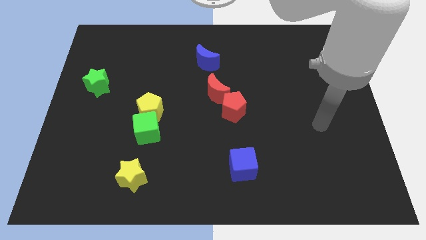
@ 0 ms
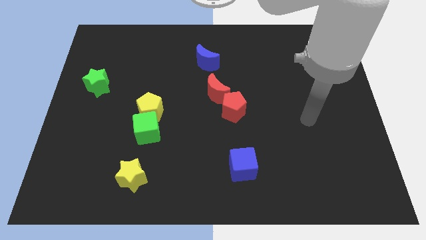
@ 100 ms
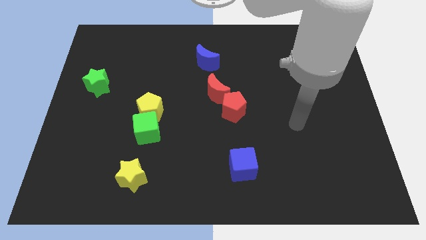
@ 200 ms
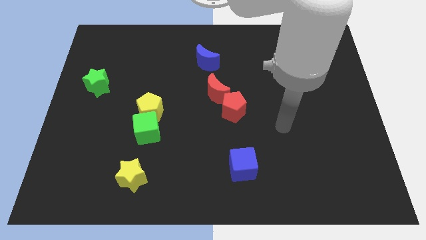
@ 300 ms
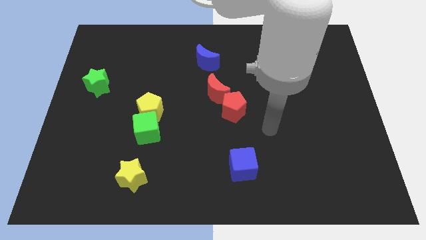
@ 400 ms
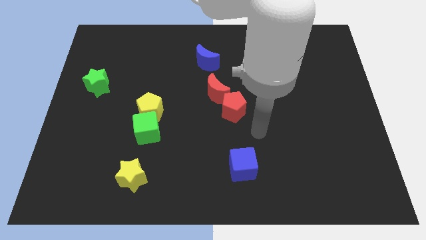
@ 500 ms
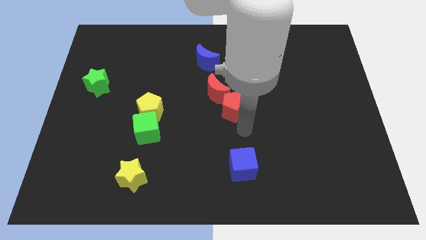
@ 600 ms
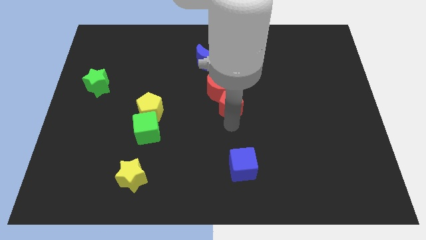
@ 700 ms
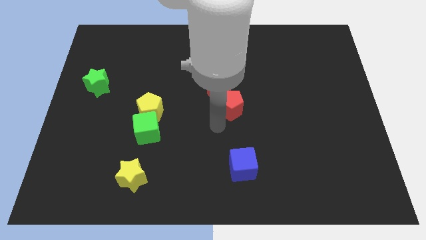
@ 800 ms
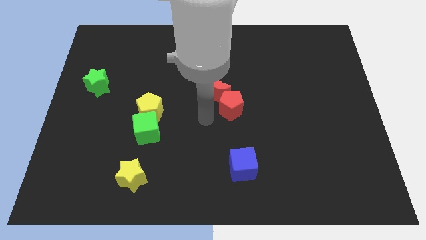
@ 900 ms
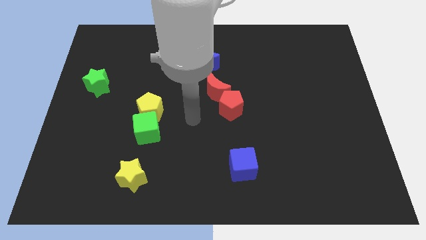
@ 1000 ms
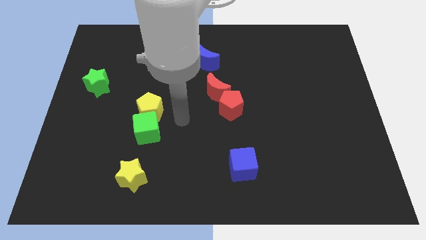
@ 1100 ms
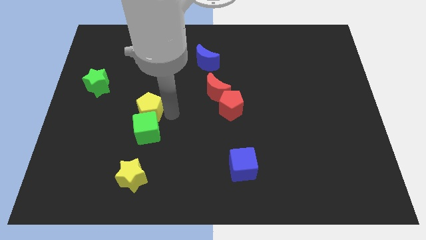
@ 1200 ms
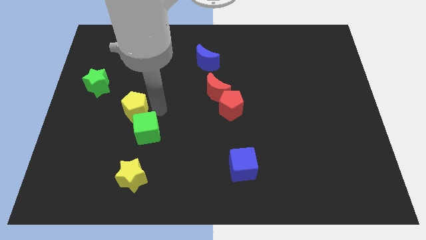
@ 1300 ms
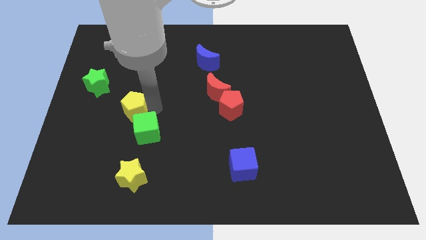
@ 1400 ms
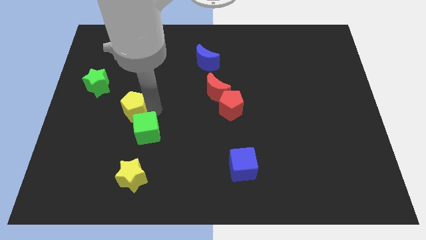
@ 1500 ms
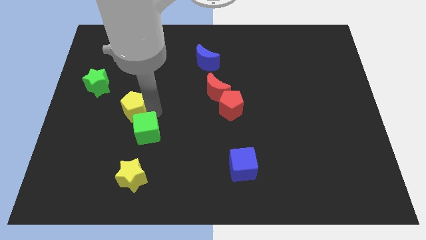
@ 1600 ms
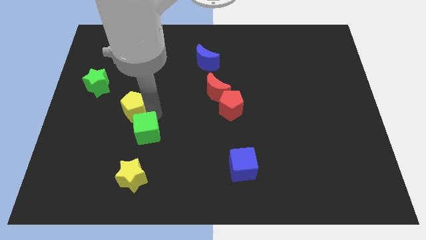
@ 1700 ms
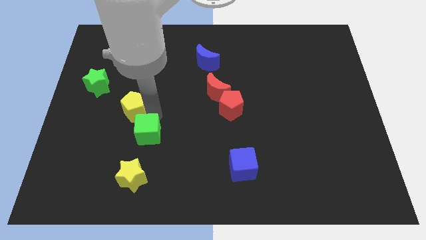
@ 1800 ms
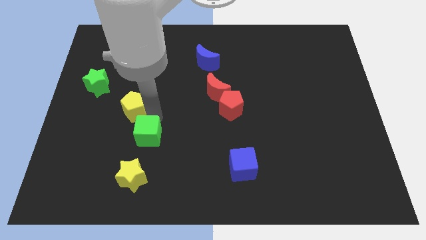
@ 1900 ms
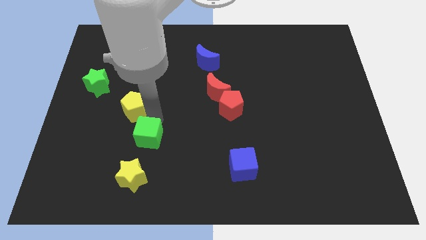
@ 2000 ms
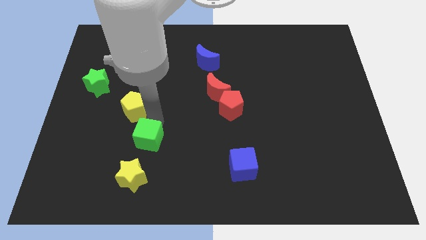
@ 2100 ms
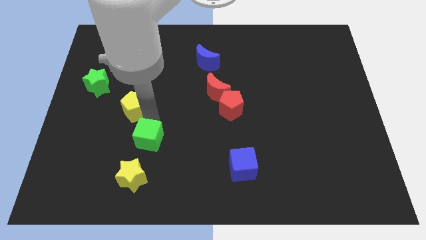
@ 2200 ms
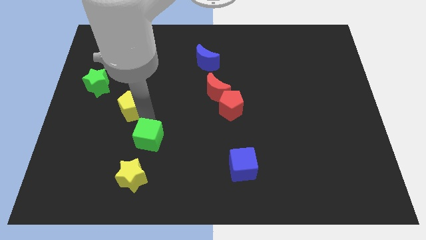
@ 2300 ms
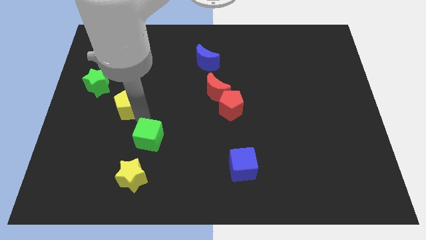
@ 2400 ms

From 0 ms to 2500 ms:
move the green cube away from the yellow pentagon

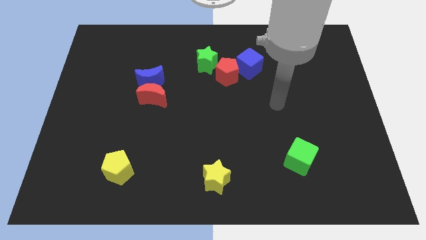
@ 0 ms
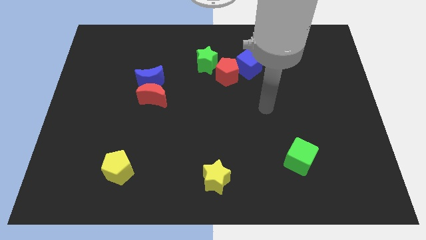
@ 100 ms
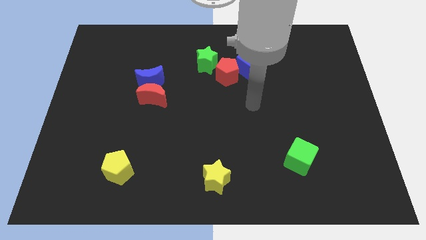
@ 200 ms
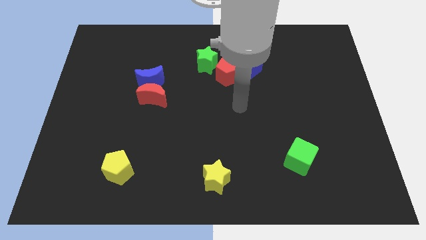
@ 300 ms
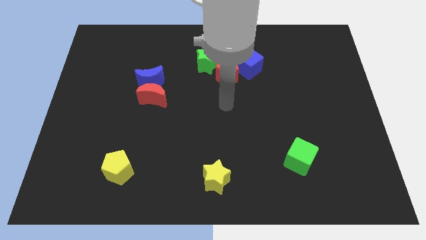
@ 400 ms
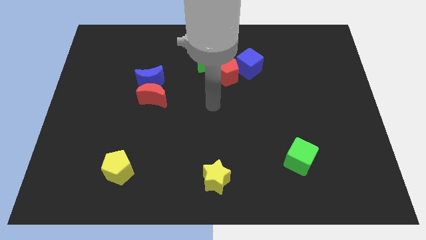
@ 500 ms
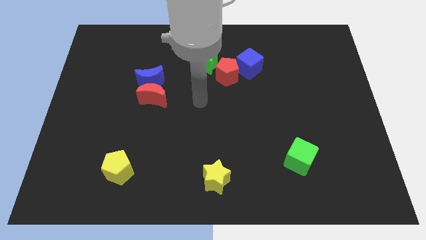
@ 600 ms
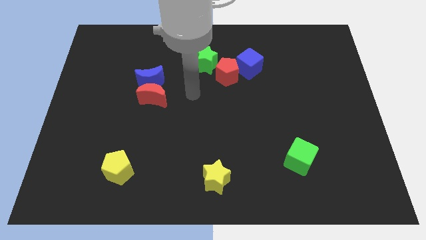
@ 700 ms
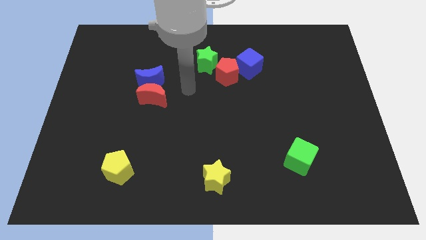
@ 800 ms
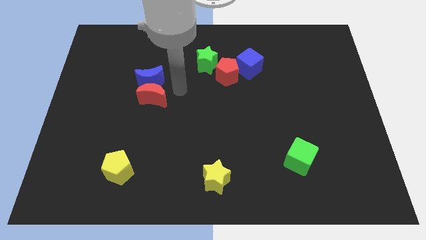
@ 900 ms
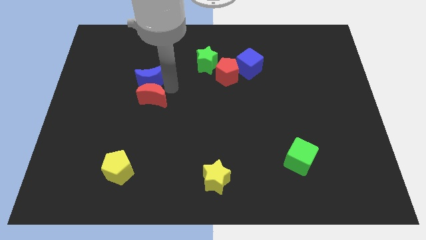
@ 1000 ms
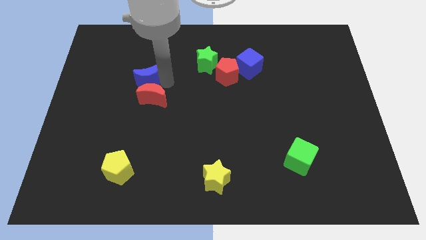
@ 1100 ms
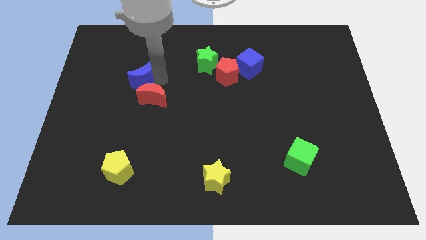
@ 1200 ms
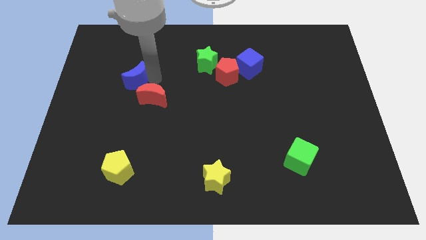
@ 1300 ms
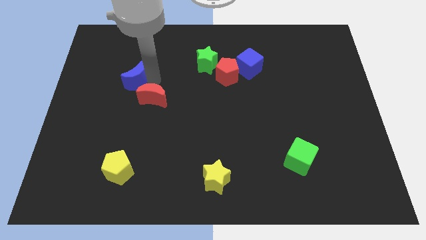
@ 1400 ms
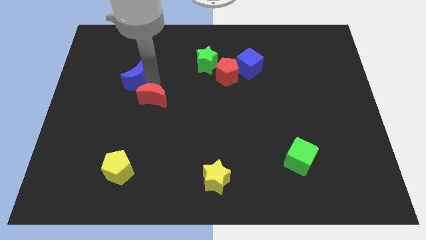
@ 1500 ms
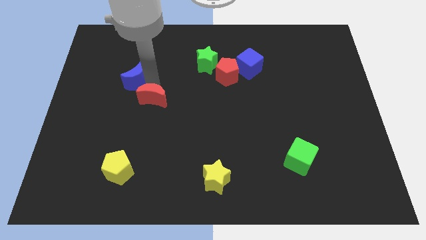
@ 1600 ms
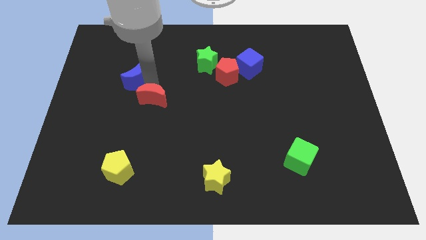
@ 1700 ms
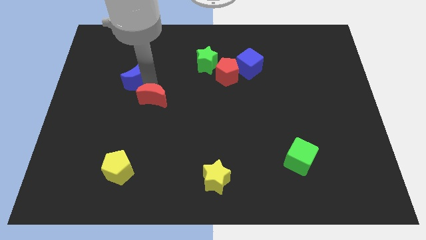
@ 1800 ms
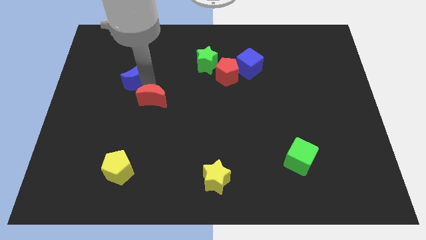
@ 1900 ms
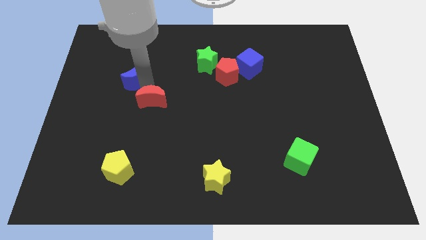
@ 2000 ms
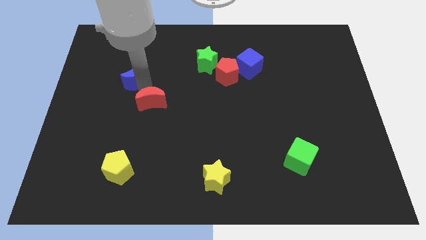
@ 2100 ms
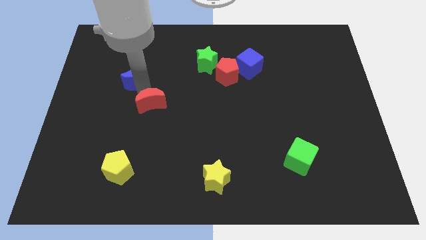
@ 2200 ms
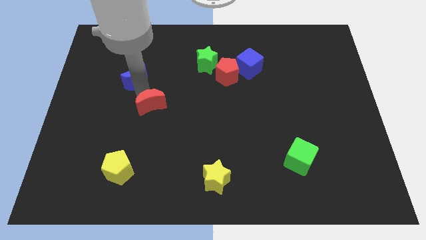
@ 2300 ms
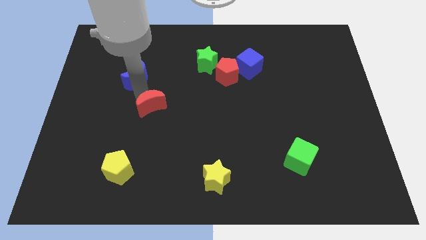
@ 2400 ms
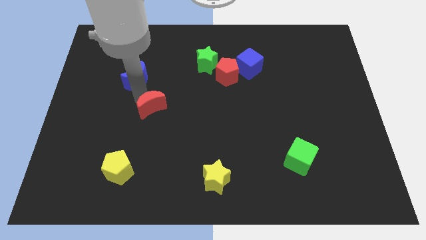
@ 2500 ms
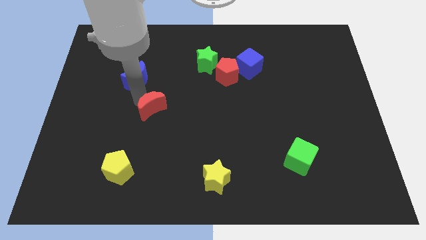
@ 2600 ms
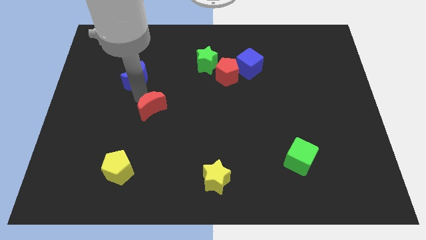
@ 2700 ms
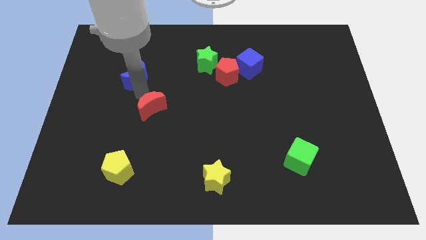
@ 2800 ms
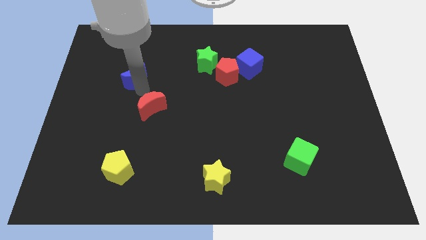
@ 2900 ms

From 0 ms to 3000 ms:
pull the red moon apart from the blue moon

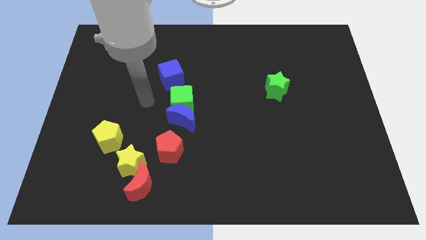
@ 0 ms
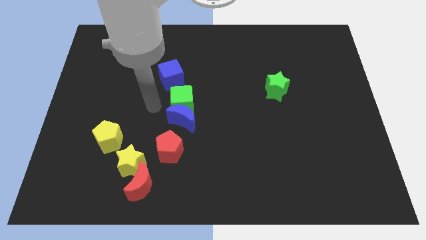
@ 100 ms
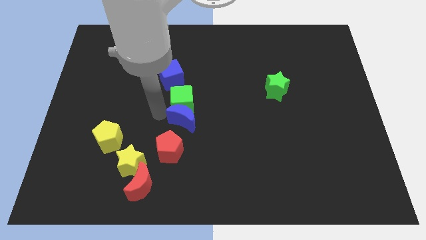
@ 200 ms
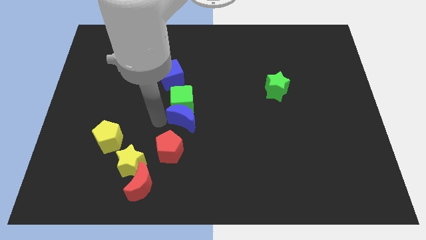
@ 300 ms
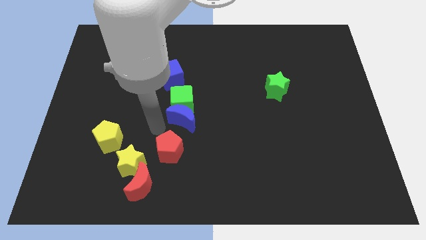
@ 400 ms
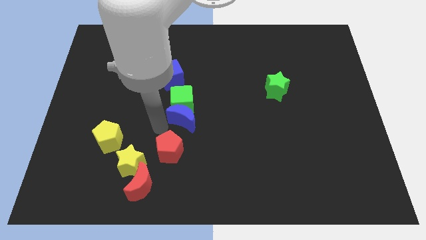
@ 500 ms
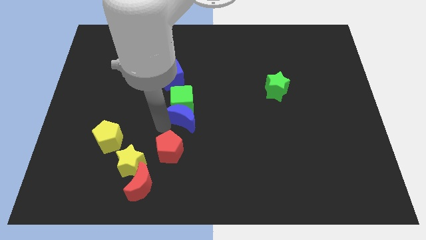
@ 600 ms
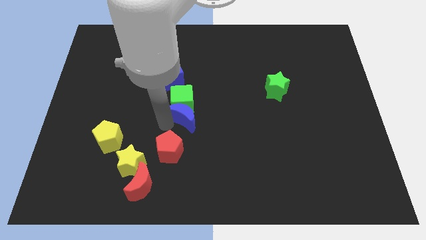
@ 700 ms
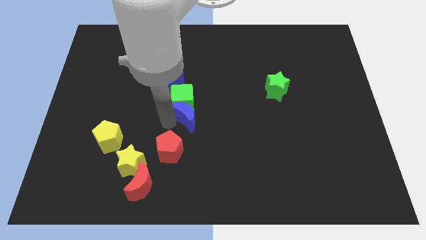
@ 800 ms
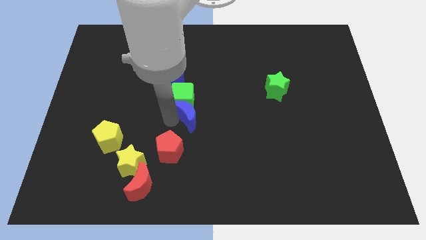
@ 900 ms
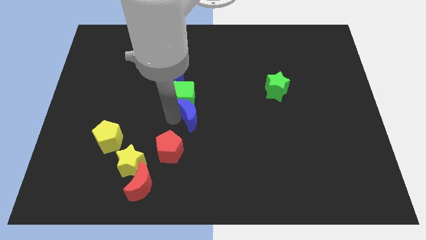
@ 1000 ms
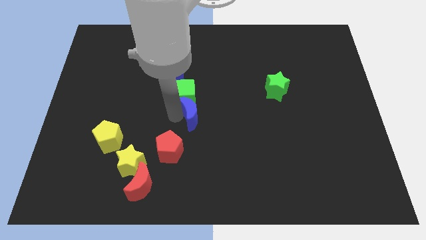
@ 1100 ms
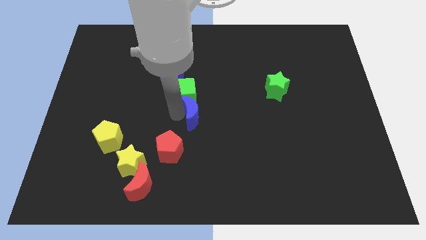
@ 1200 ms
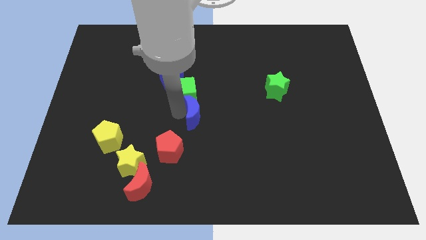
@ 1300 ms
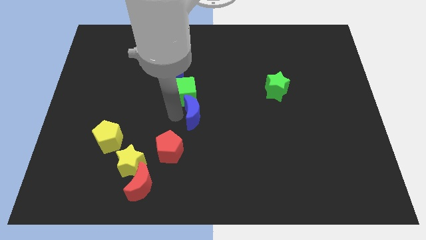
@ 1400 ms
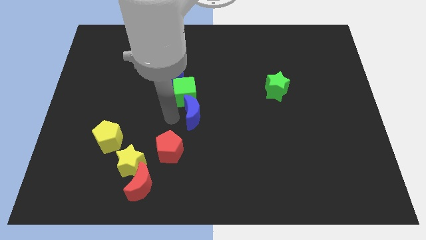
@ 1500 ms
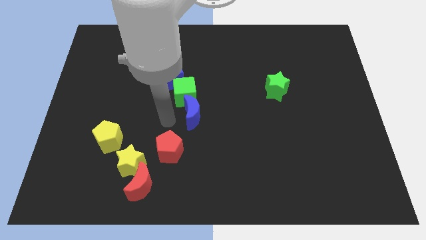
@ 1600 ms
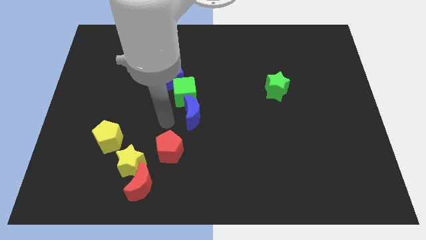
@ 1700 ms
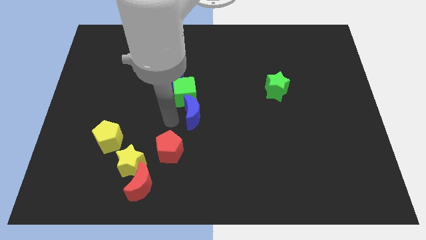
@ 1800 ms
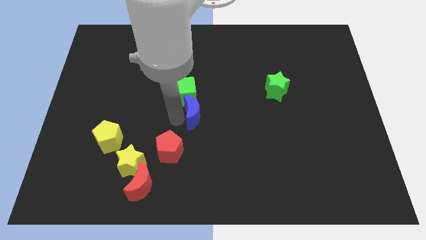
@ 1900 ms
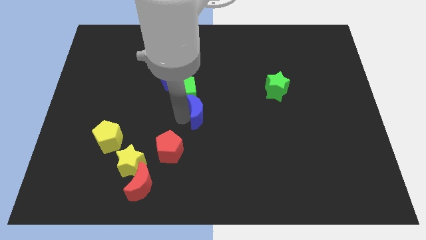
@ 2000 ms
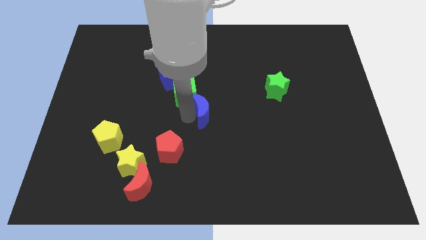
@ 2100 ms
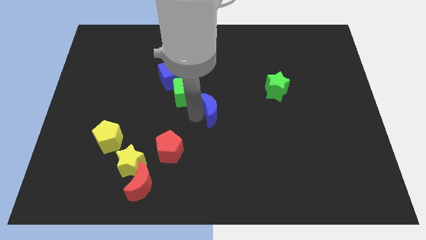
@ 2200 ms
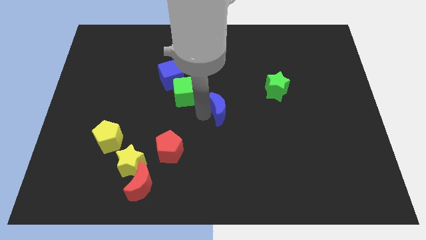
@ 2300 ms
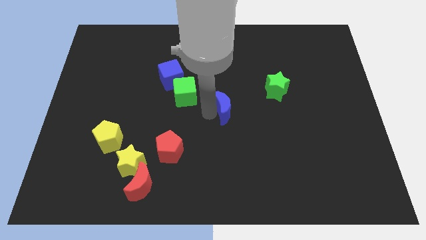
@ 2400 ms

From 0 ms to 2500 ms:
separate the blue moon from the green cube and red pentagon

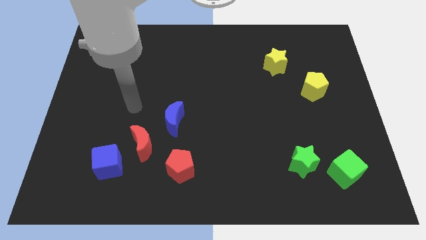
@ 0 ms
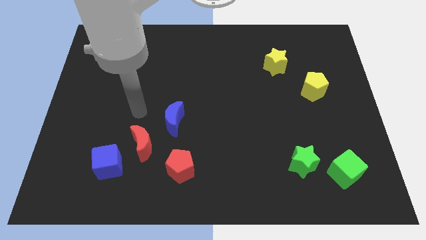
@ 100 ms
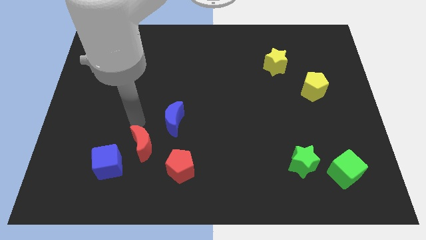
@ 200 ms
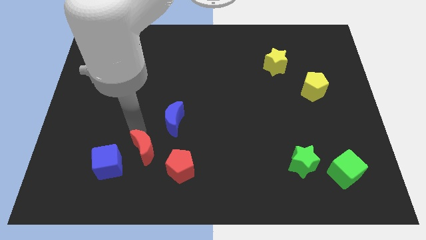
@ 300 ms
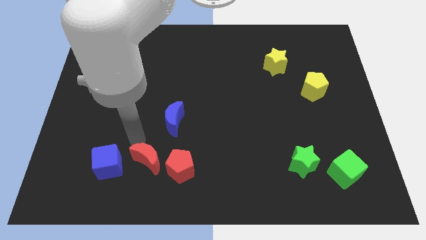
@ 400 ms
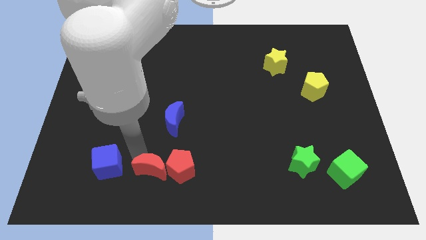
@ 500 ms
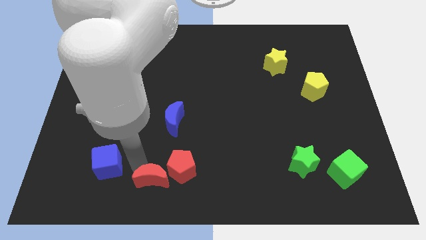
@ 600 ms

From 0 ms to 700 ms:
pull the blue cube apart from the red moon

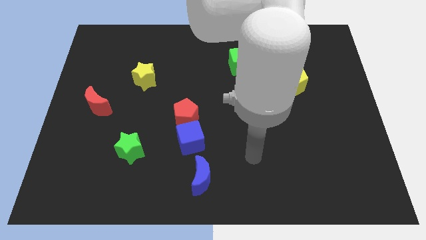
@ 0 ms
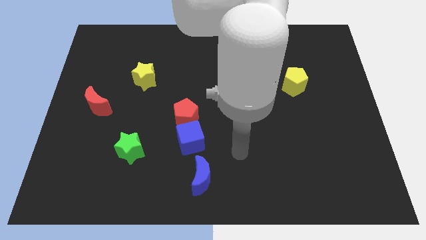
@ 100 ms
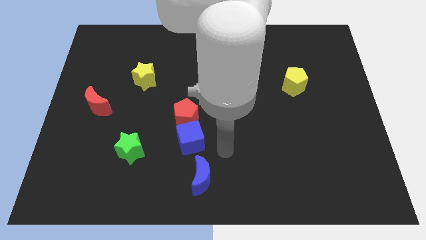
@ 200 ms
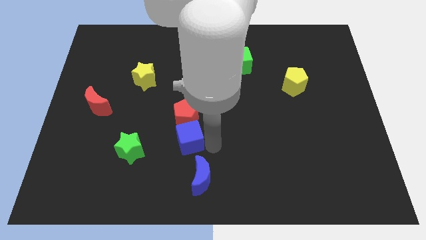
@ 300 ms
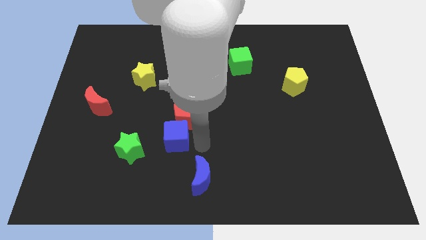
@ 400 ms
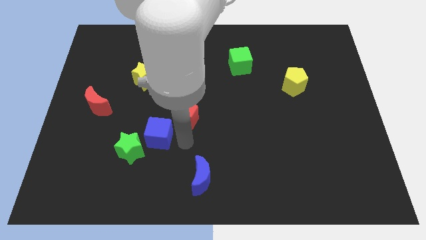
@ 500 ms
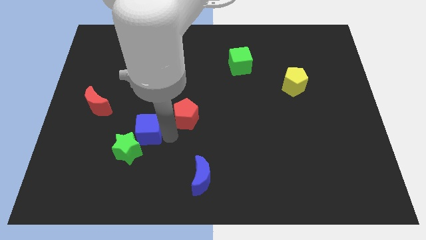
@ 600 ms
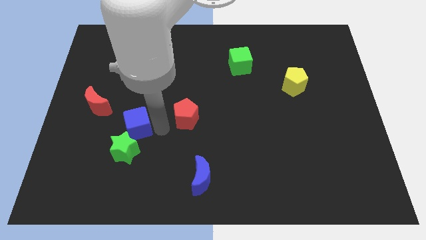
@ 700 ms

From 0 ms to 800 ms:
pull the red pentagon apart from the blue cube
